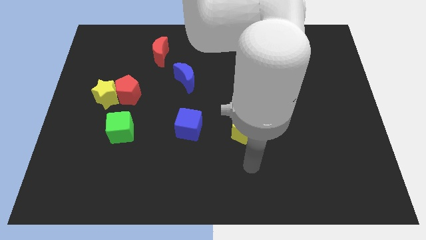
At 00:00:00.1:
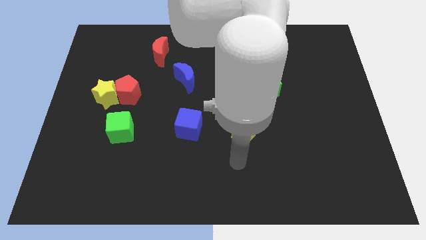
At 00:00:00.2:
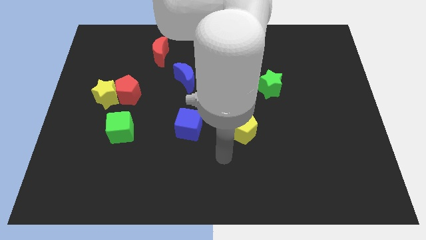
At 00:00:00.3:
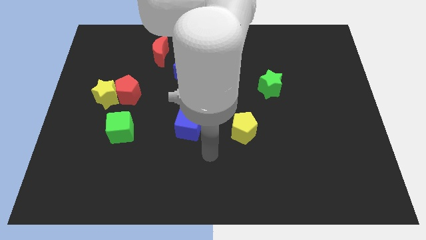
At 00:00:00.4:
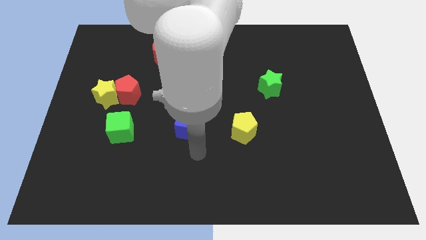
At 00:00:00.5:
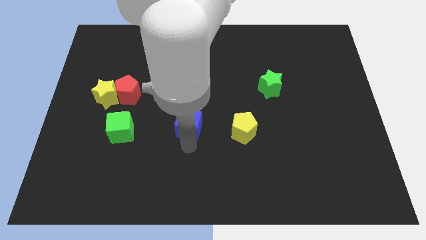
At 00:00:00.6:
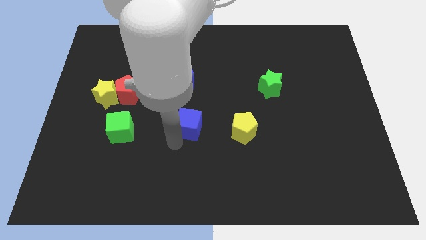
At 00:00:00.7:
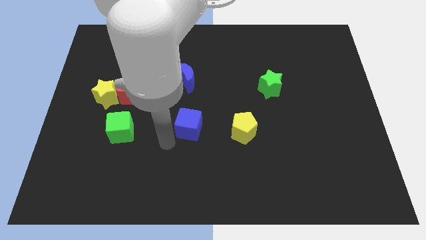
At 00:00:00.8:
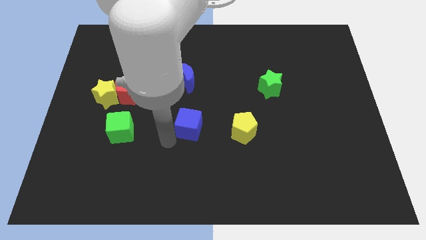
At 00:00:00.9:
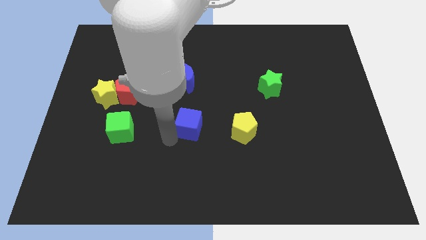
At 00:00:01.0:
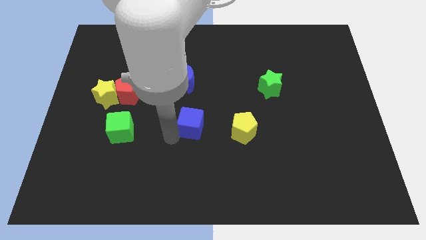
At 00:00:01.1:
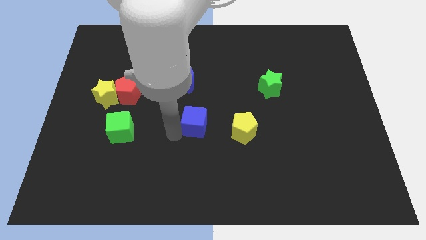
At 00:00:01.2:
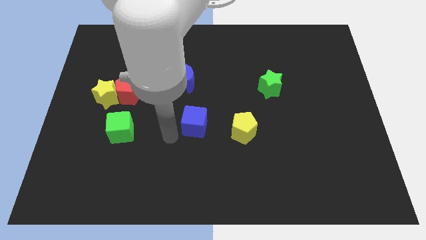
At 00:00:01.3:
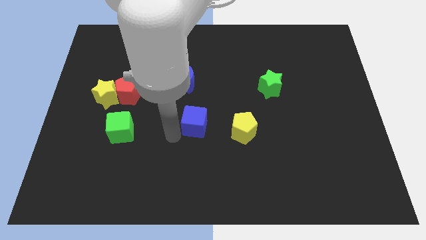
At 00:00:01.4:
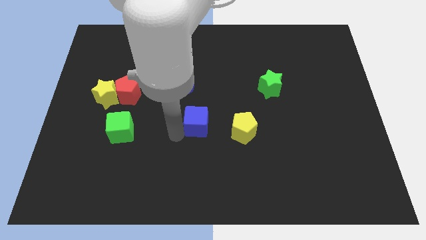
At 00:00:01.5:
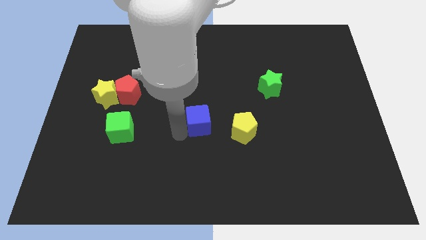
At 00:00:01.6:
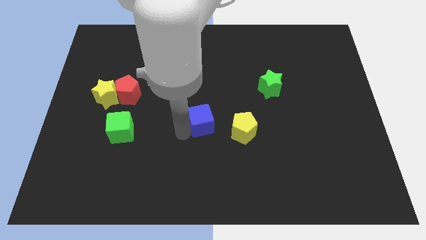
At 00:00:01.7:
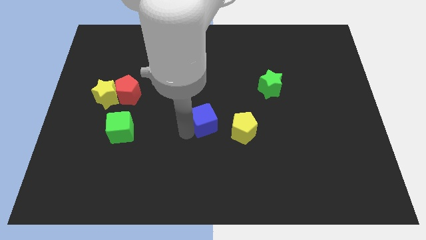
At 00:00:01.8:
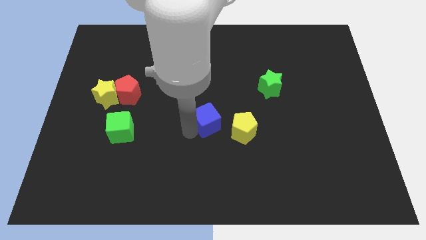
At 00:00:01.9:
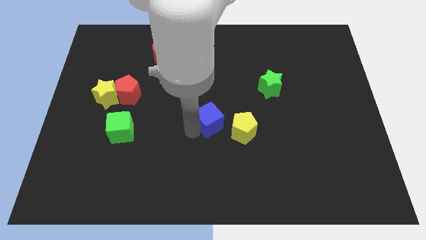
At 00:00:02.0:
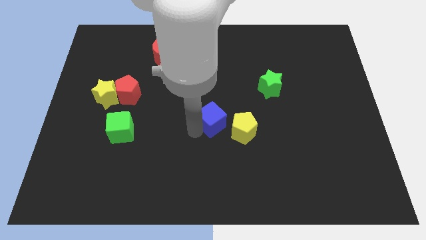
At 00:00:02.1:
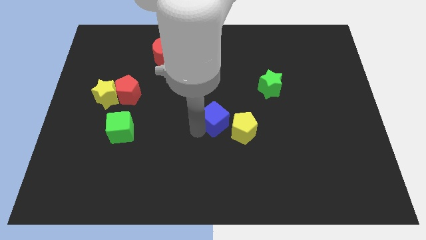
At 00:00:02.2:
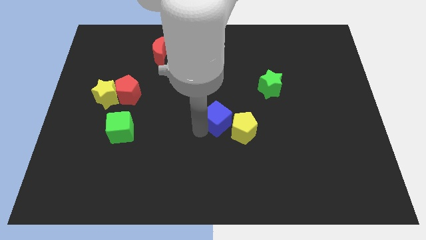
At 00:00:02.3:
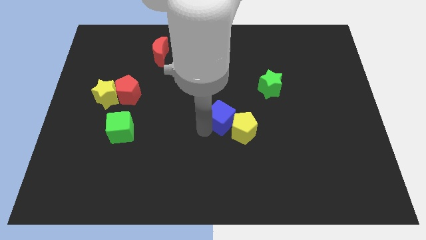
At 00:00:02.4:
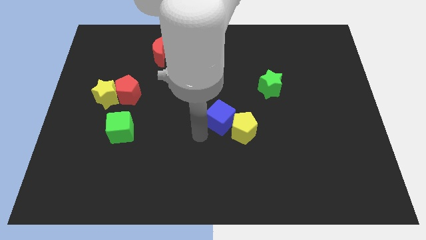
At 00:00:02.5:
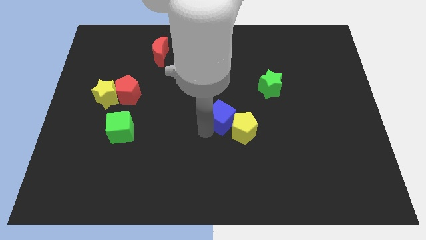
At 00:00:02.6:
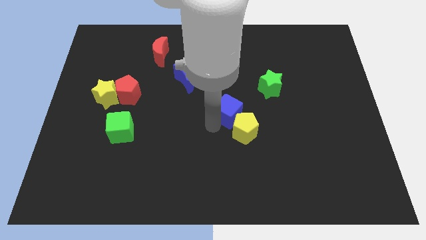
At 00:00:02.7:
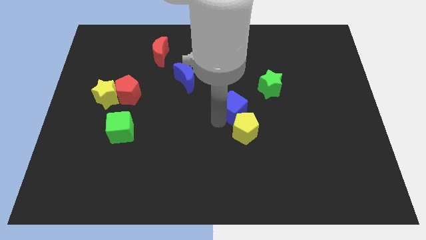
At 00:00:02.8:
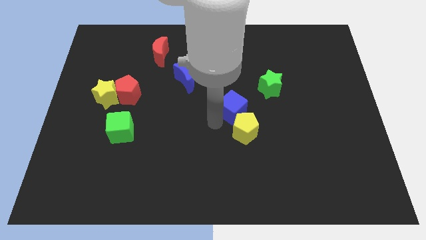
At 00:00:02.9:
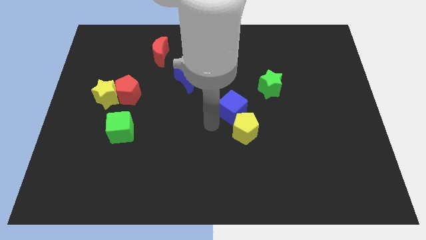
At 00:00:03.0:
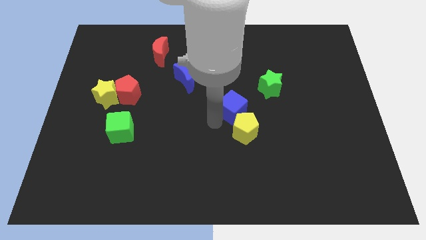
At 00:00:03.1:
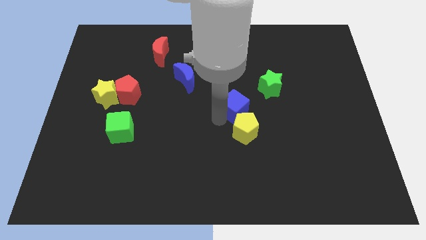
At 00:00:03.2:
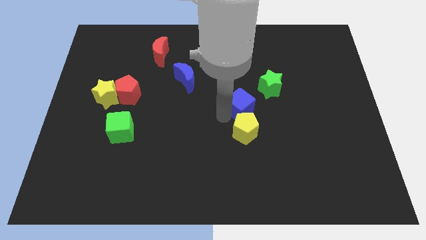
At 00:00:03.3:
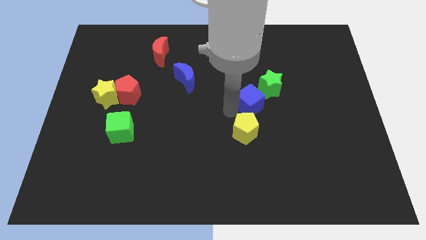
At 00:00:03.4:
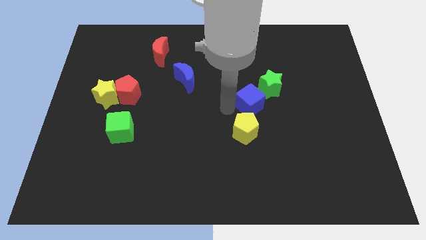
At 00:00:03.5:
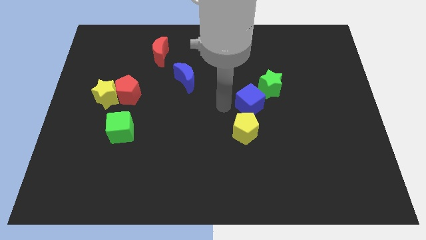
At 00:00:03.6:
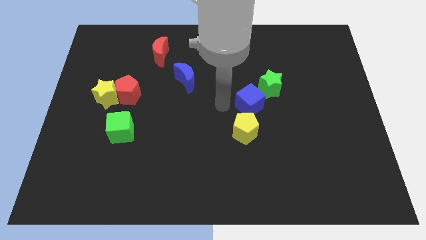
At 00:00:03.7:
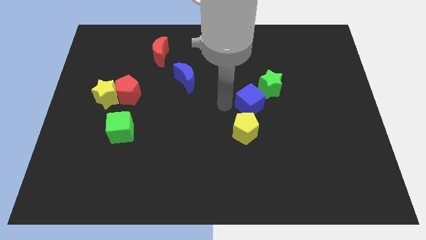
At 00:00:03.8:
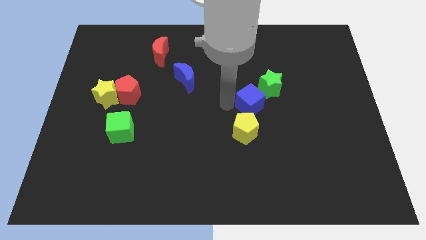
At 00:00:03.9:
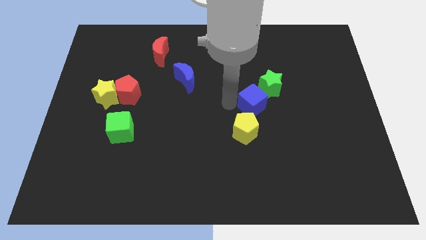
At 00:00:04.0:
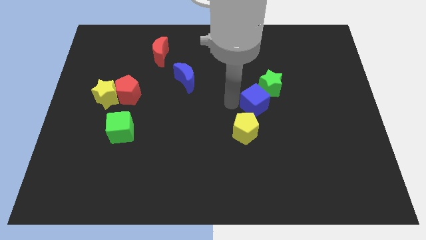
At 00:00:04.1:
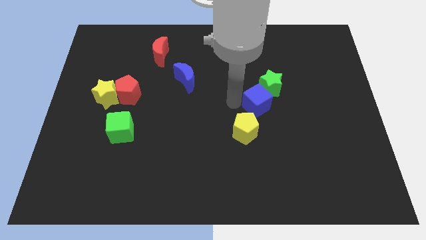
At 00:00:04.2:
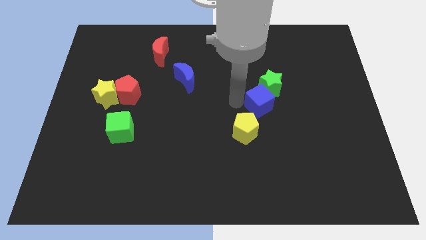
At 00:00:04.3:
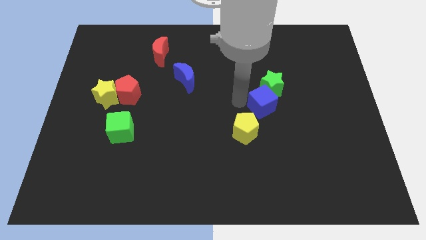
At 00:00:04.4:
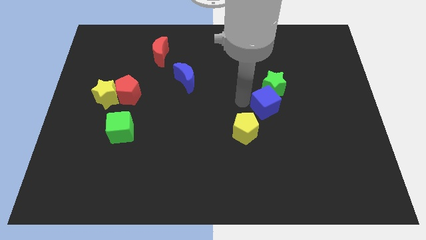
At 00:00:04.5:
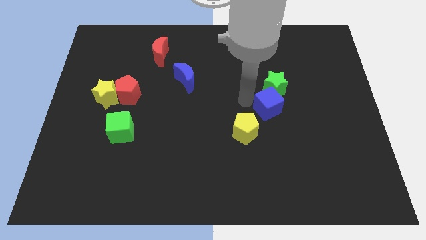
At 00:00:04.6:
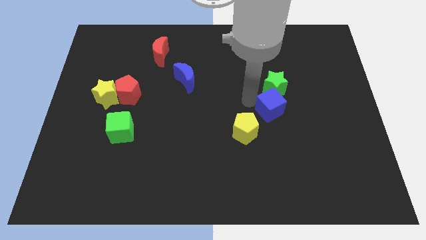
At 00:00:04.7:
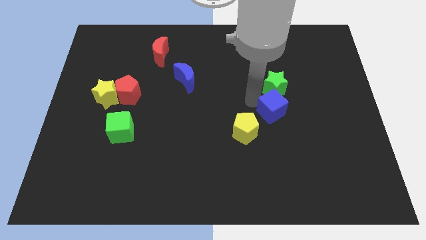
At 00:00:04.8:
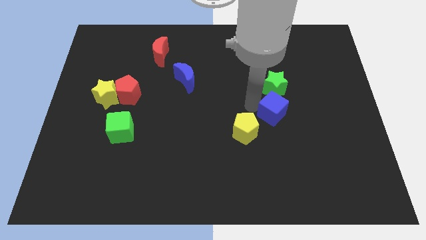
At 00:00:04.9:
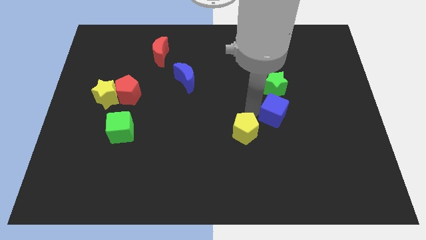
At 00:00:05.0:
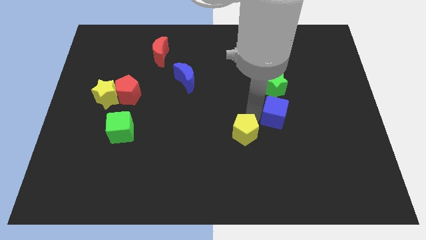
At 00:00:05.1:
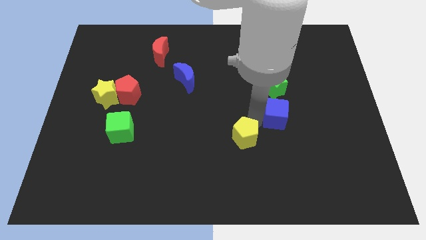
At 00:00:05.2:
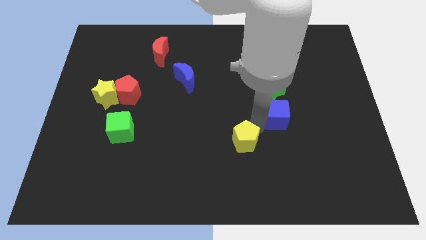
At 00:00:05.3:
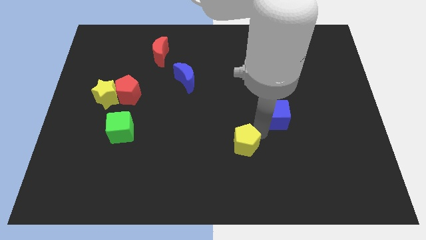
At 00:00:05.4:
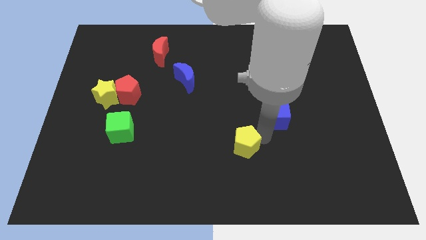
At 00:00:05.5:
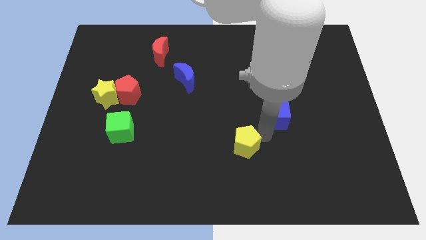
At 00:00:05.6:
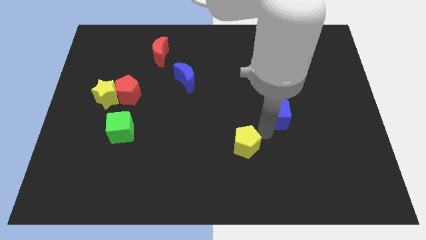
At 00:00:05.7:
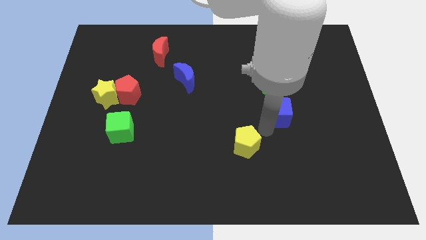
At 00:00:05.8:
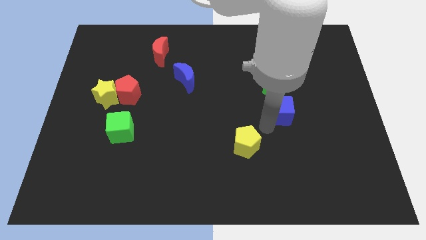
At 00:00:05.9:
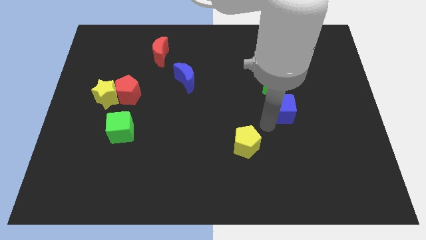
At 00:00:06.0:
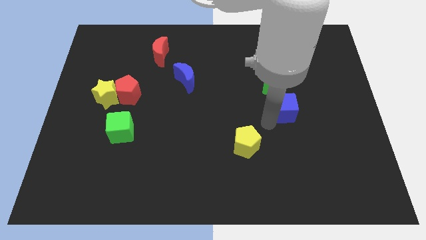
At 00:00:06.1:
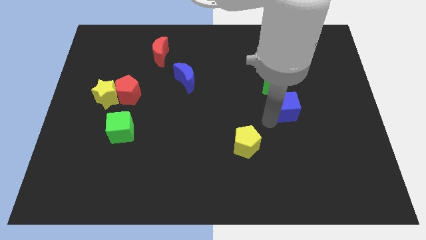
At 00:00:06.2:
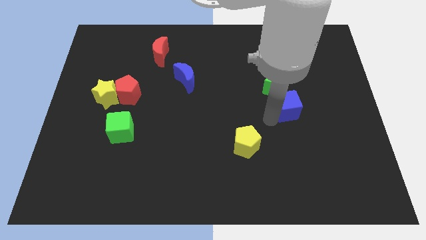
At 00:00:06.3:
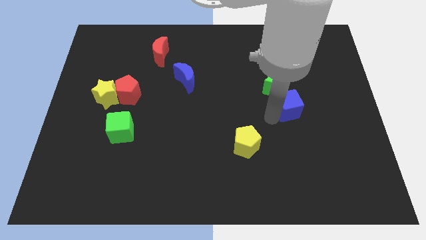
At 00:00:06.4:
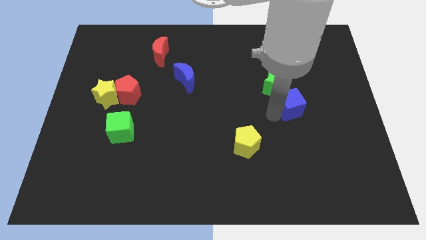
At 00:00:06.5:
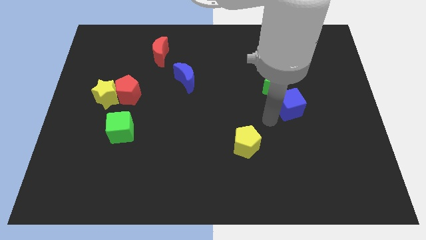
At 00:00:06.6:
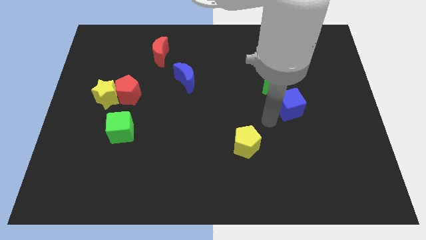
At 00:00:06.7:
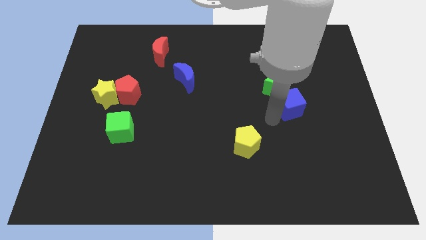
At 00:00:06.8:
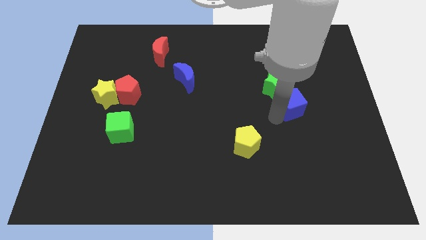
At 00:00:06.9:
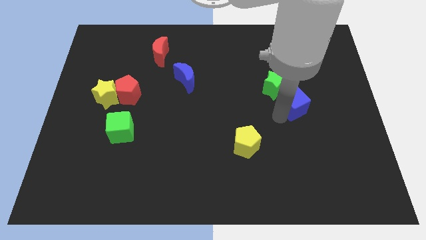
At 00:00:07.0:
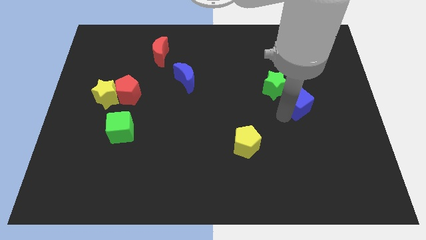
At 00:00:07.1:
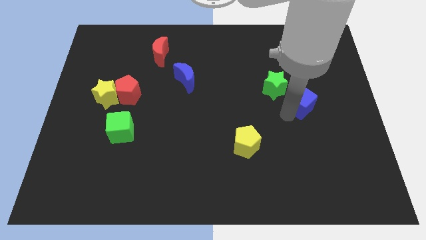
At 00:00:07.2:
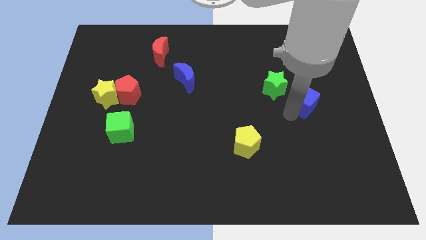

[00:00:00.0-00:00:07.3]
push the blue cube to the right of the green star
